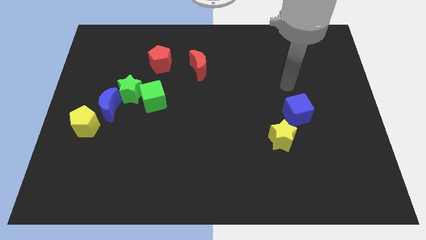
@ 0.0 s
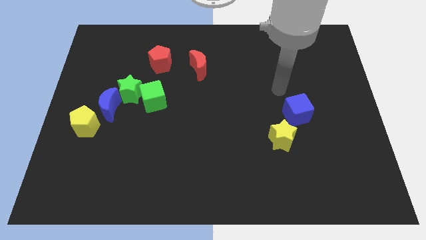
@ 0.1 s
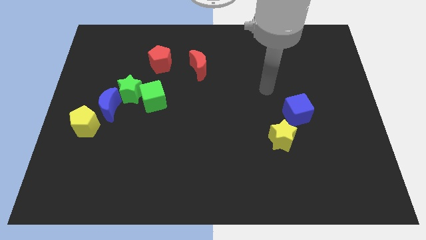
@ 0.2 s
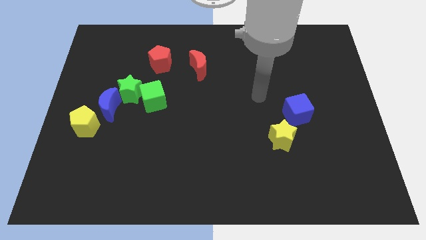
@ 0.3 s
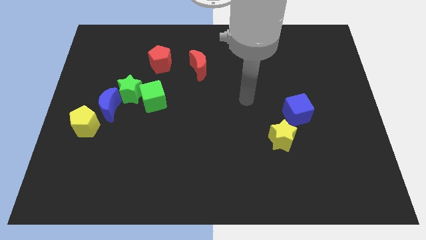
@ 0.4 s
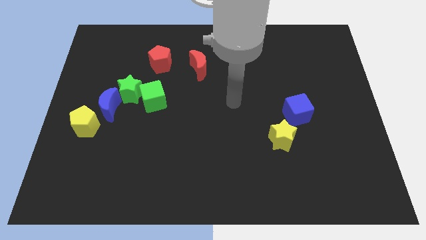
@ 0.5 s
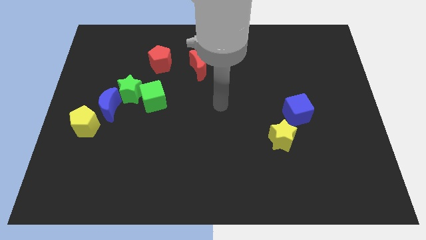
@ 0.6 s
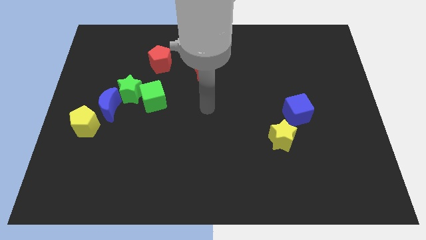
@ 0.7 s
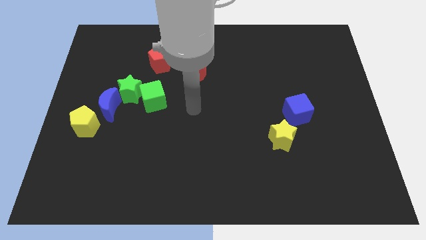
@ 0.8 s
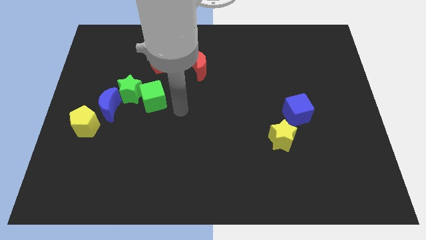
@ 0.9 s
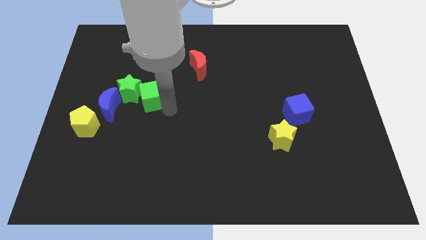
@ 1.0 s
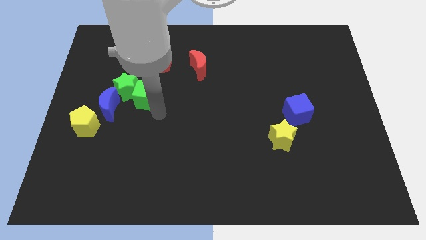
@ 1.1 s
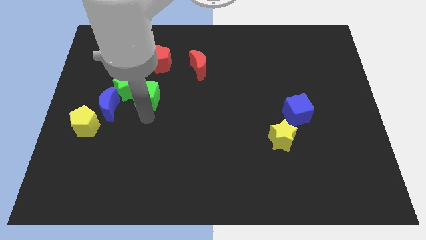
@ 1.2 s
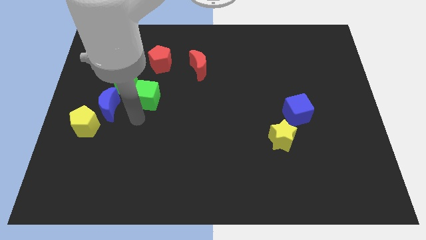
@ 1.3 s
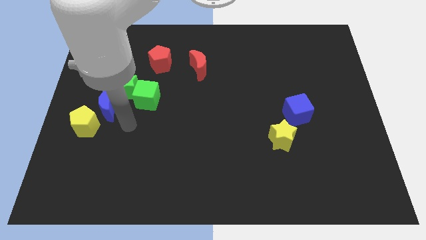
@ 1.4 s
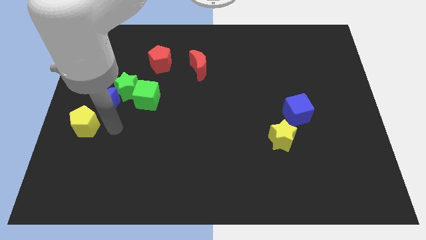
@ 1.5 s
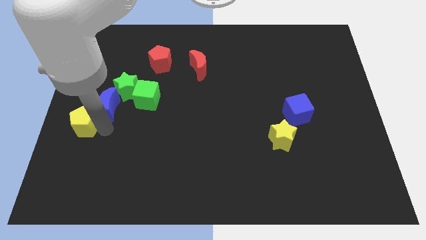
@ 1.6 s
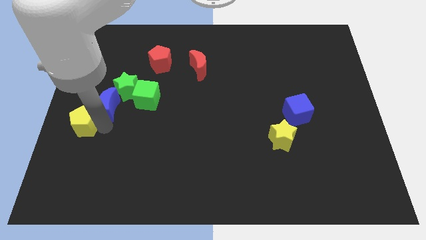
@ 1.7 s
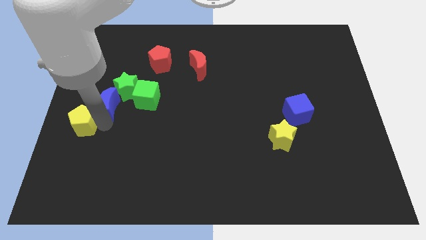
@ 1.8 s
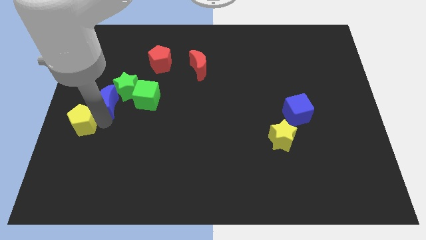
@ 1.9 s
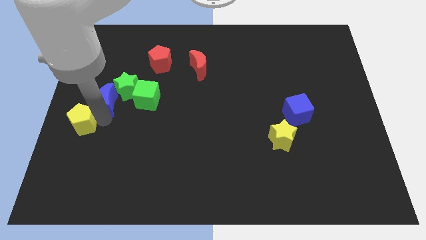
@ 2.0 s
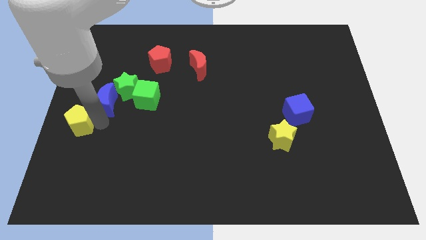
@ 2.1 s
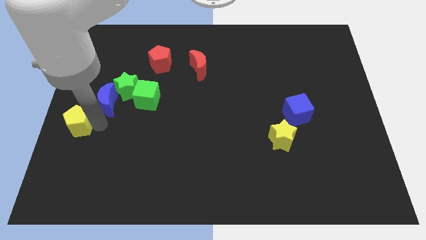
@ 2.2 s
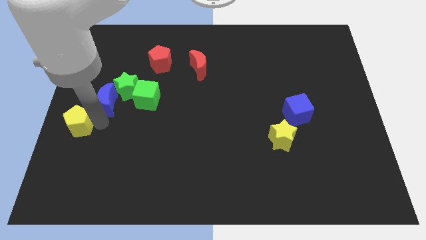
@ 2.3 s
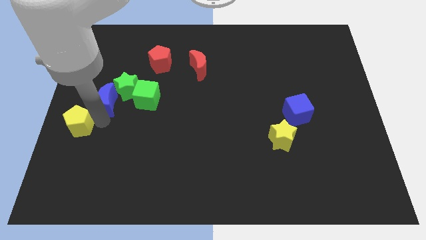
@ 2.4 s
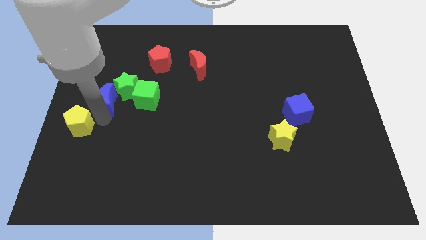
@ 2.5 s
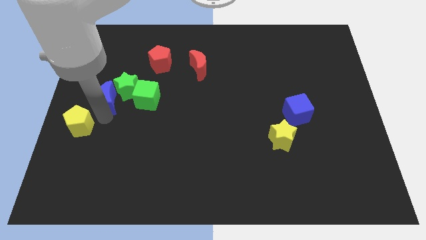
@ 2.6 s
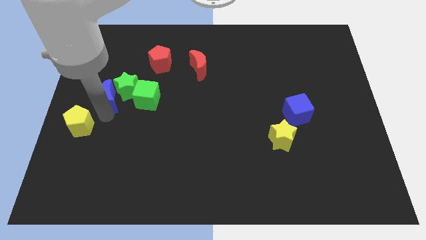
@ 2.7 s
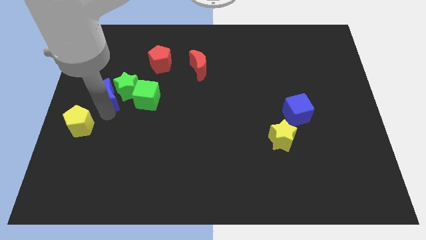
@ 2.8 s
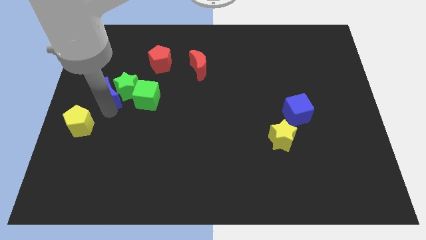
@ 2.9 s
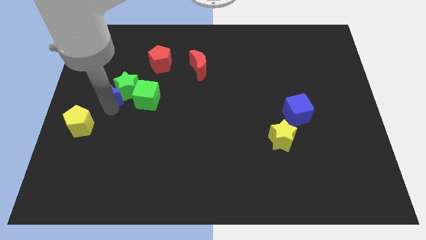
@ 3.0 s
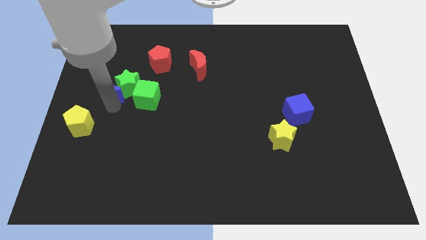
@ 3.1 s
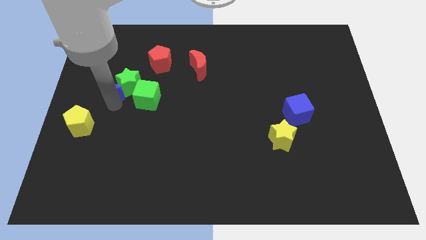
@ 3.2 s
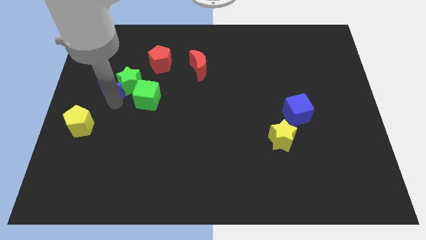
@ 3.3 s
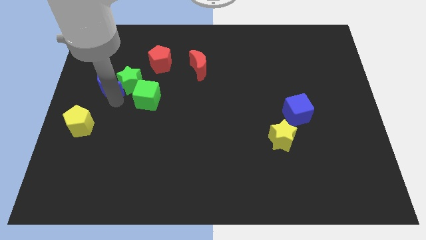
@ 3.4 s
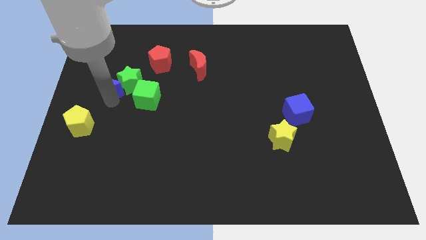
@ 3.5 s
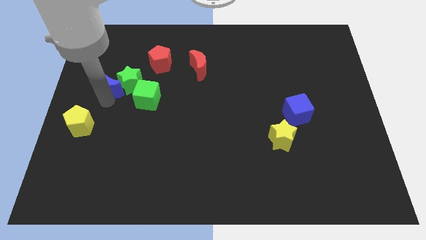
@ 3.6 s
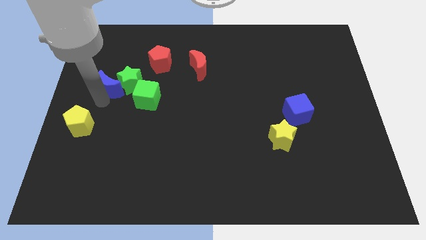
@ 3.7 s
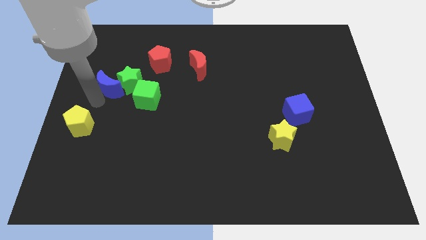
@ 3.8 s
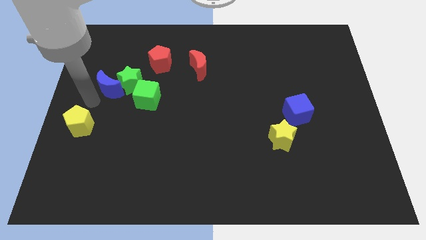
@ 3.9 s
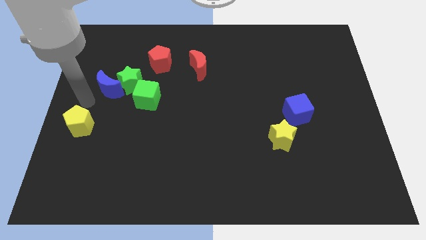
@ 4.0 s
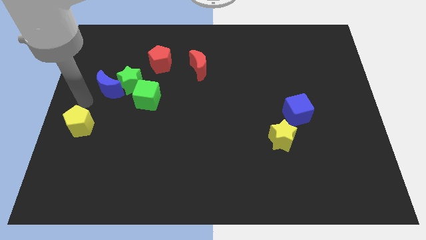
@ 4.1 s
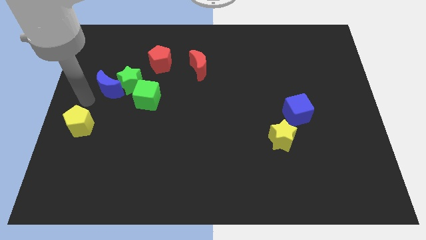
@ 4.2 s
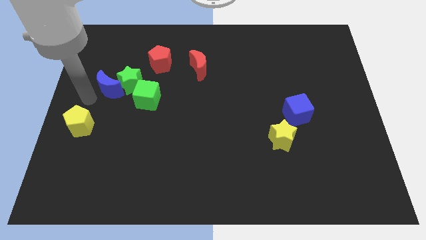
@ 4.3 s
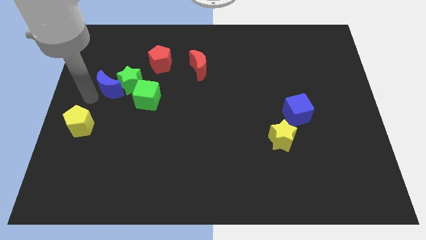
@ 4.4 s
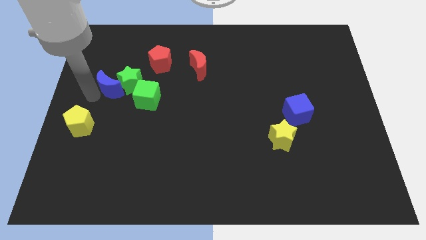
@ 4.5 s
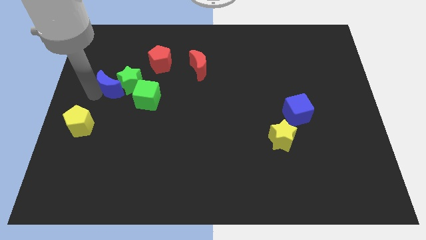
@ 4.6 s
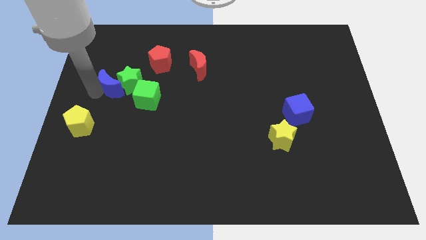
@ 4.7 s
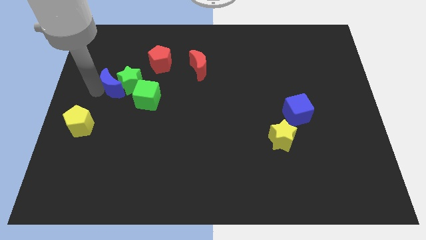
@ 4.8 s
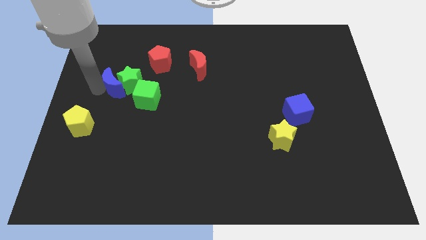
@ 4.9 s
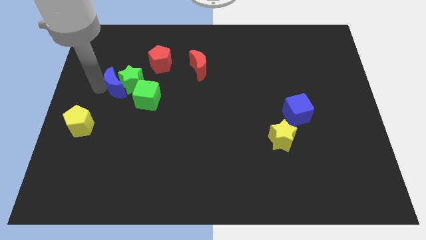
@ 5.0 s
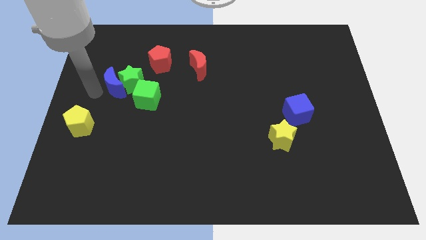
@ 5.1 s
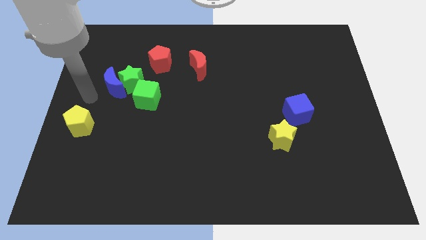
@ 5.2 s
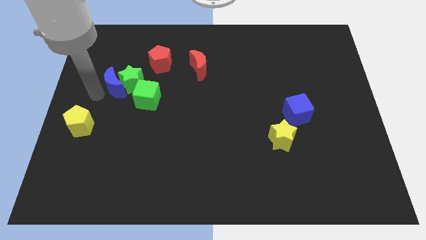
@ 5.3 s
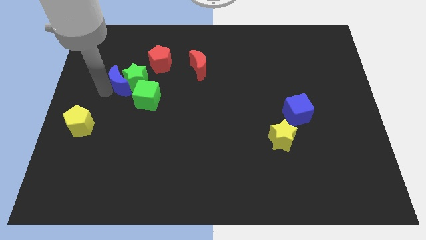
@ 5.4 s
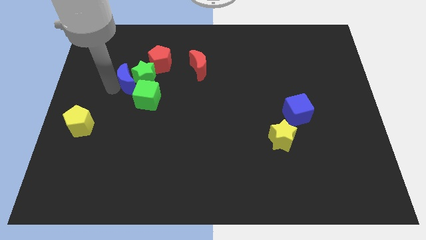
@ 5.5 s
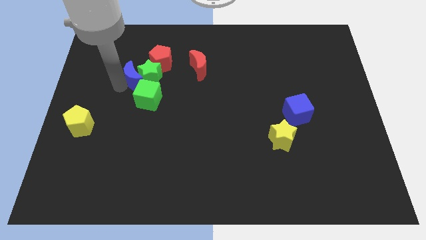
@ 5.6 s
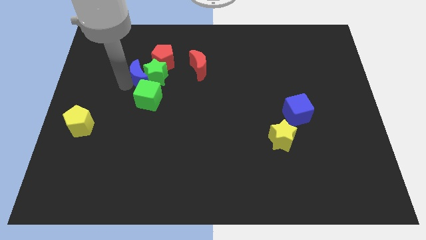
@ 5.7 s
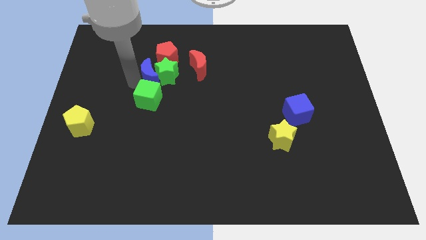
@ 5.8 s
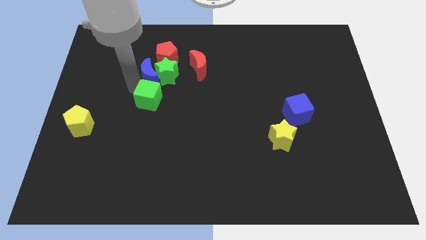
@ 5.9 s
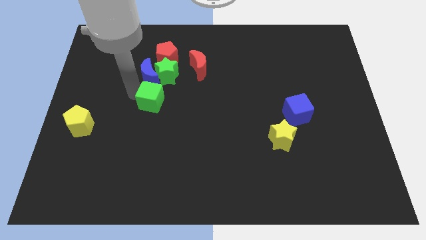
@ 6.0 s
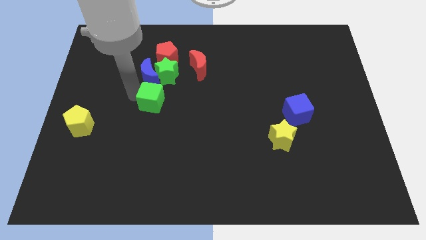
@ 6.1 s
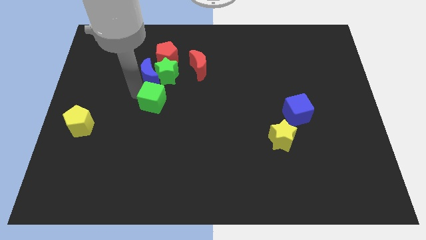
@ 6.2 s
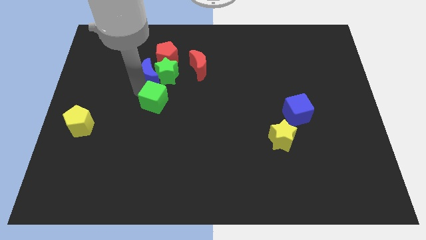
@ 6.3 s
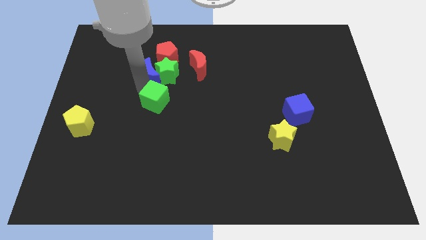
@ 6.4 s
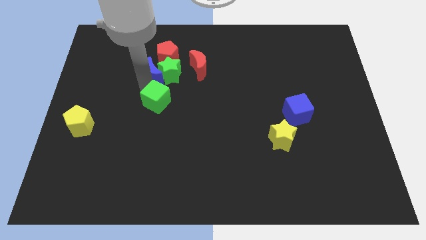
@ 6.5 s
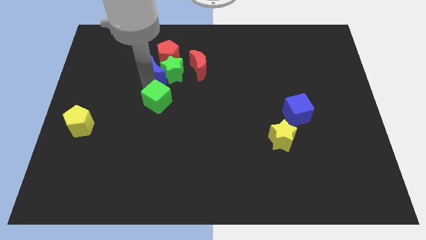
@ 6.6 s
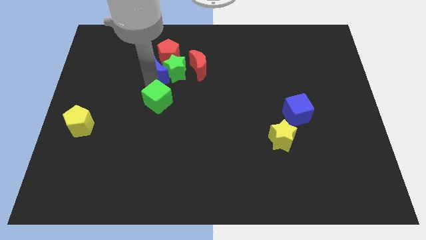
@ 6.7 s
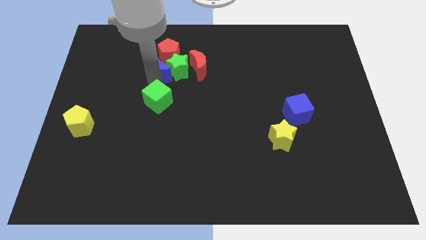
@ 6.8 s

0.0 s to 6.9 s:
put the blue moon close to the red pentagon

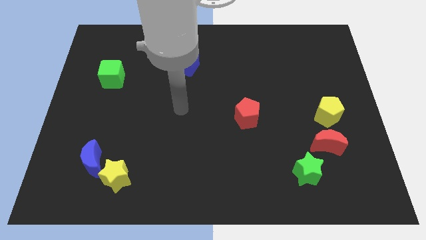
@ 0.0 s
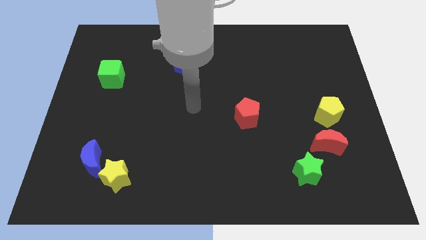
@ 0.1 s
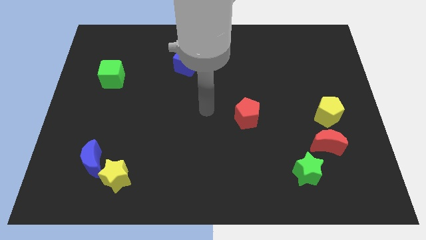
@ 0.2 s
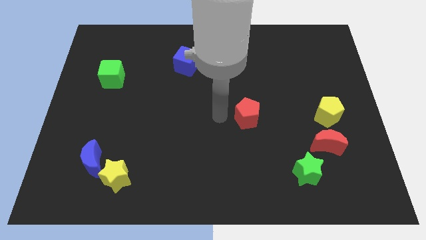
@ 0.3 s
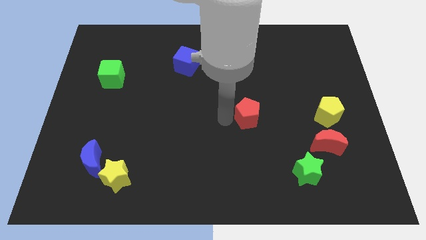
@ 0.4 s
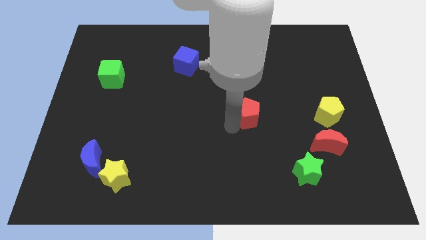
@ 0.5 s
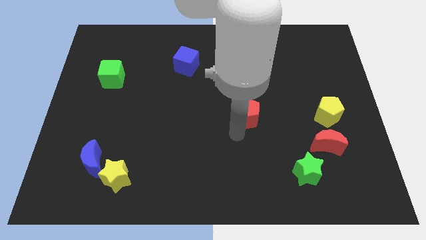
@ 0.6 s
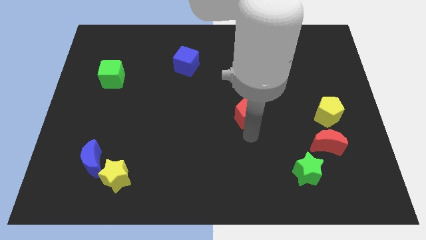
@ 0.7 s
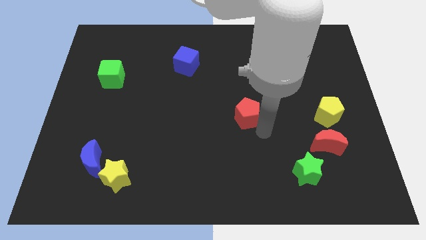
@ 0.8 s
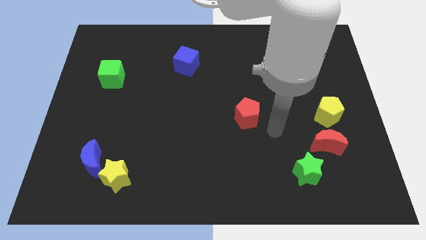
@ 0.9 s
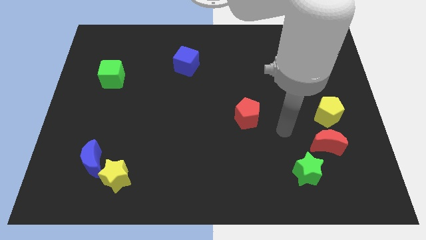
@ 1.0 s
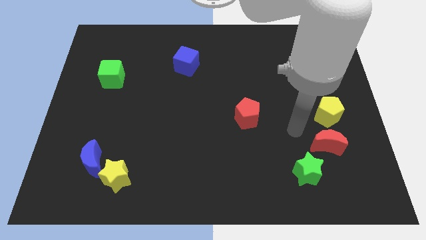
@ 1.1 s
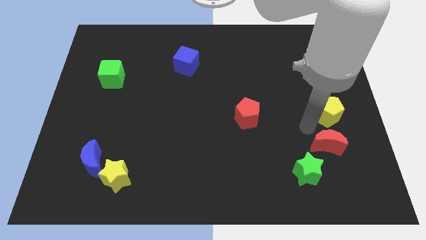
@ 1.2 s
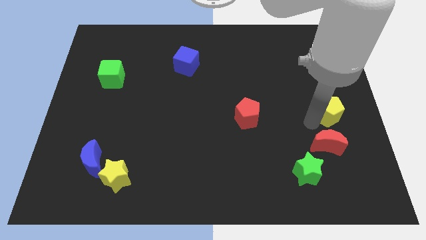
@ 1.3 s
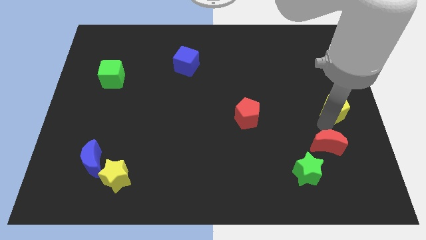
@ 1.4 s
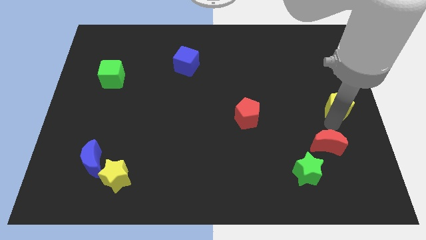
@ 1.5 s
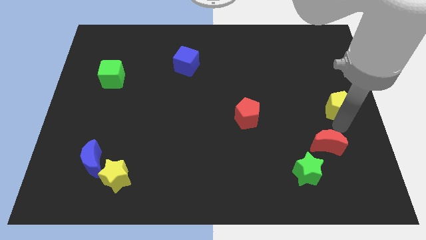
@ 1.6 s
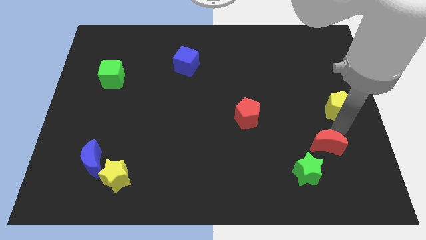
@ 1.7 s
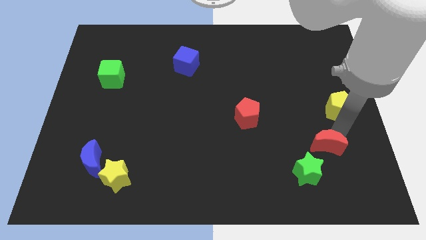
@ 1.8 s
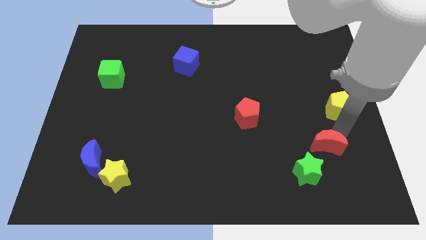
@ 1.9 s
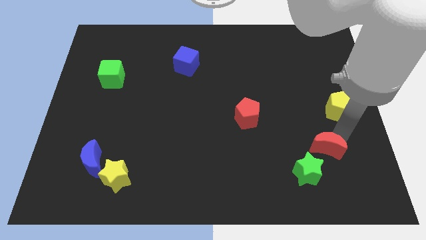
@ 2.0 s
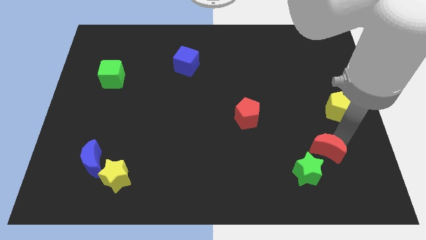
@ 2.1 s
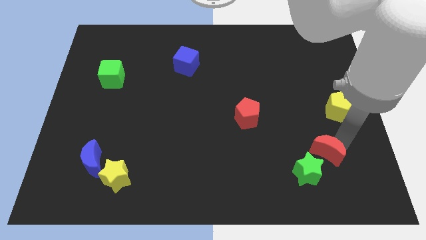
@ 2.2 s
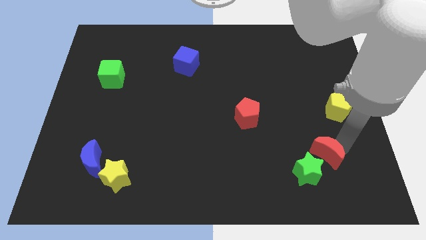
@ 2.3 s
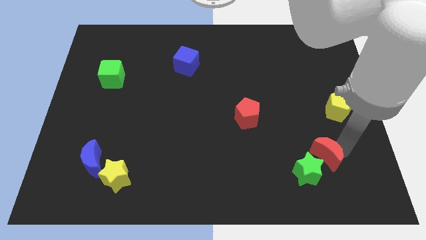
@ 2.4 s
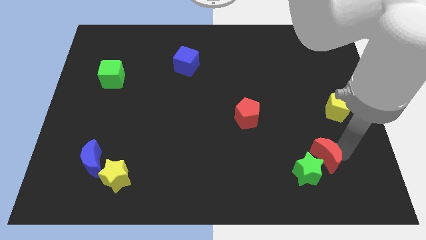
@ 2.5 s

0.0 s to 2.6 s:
move the red moon next to the green star
